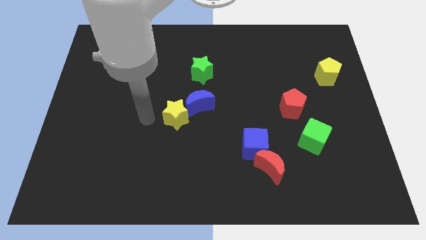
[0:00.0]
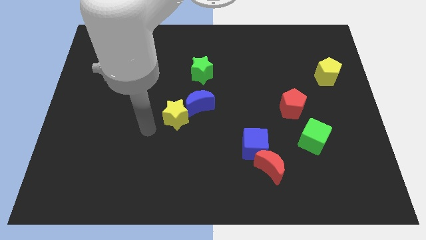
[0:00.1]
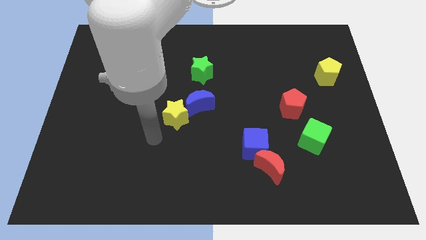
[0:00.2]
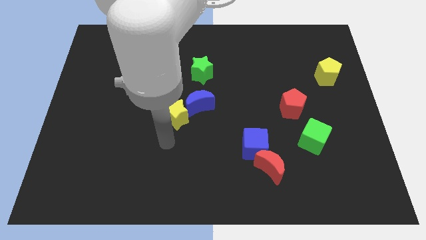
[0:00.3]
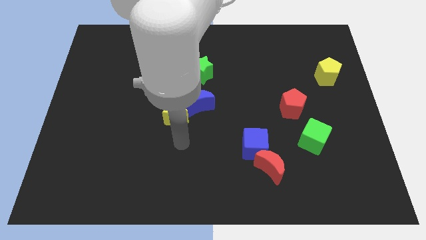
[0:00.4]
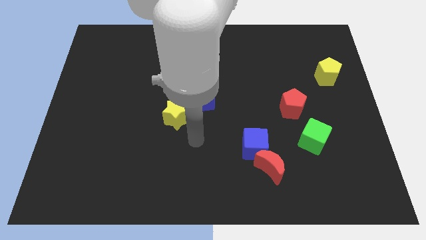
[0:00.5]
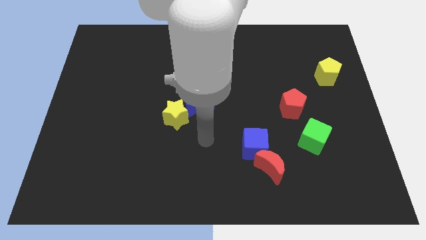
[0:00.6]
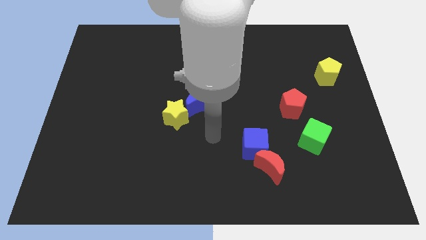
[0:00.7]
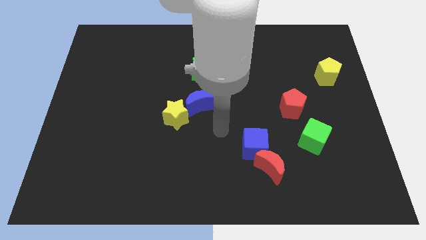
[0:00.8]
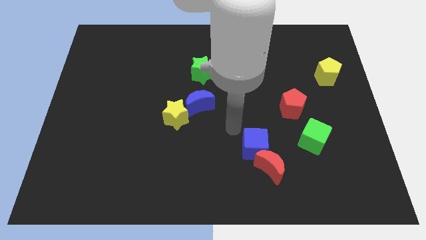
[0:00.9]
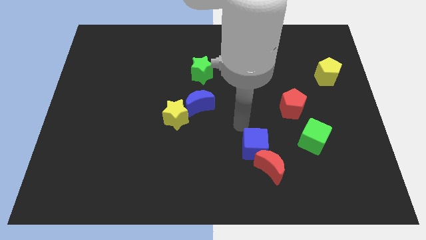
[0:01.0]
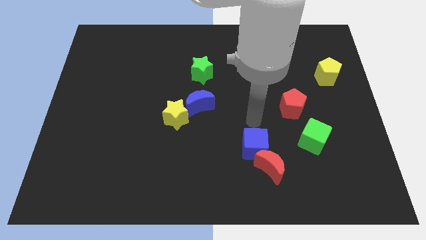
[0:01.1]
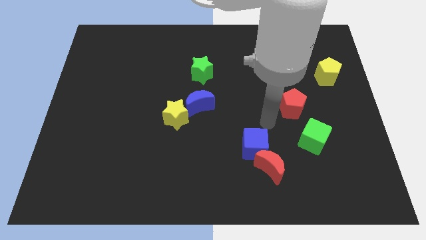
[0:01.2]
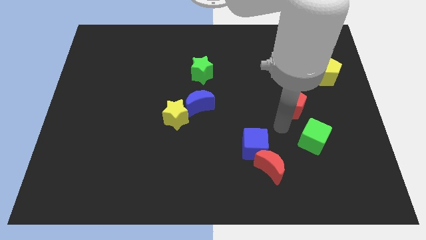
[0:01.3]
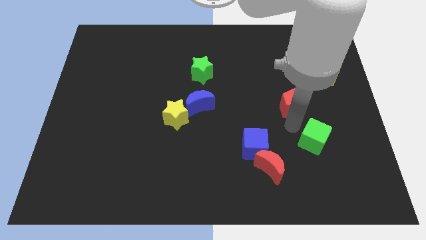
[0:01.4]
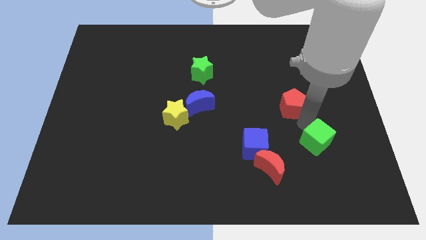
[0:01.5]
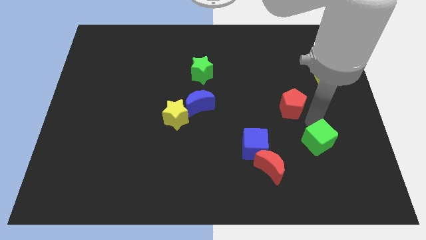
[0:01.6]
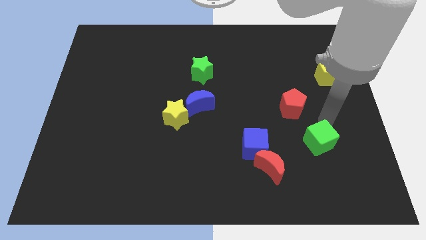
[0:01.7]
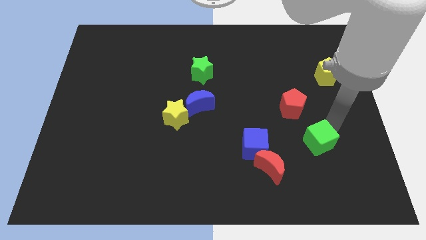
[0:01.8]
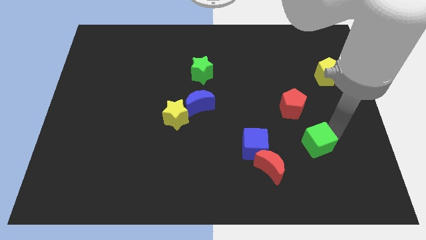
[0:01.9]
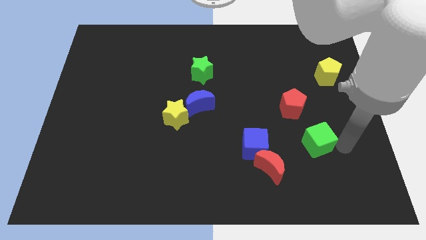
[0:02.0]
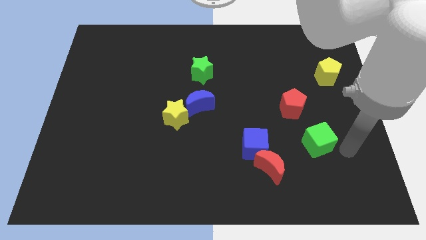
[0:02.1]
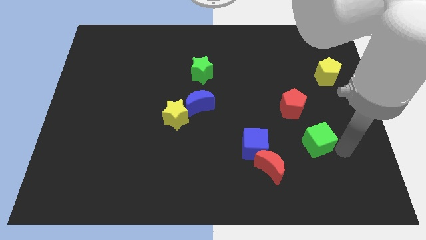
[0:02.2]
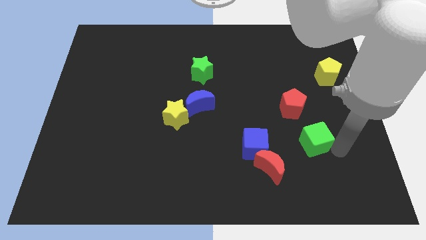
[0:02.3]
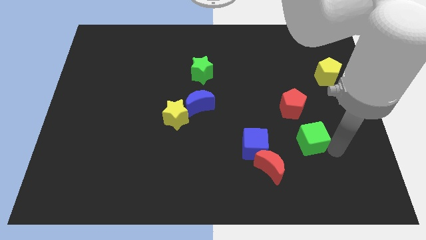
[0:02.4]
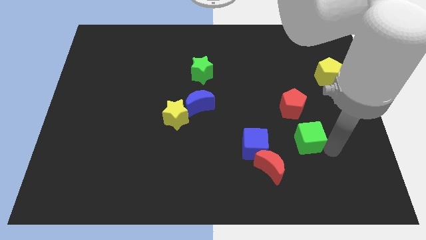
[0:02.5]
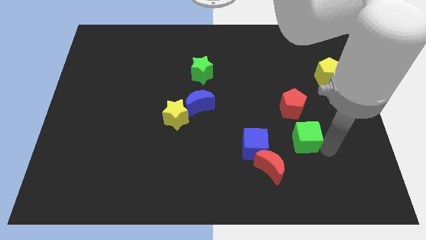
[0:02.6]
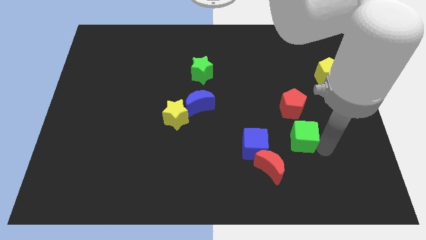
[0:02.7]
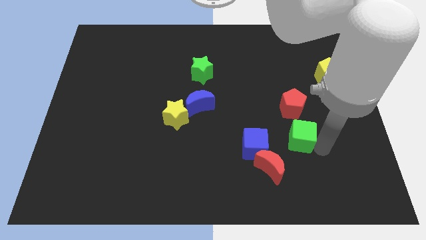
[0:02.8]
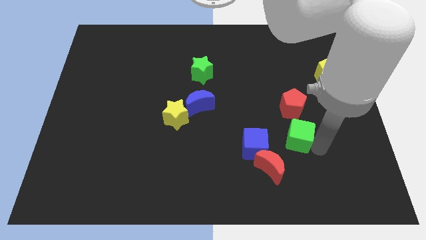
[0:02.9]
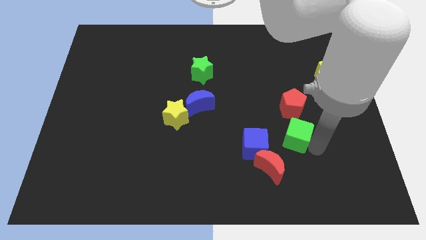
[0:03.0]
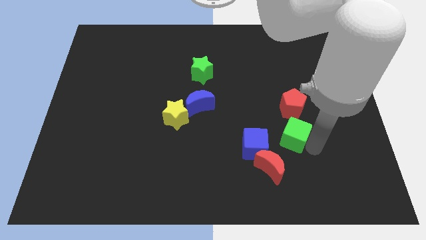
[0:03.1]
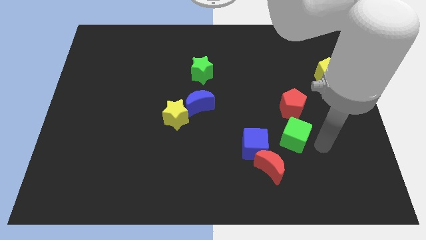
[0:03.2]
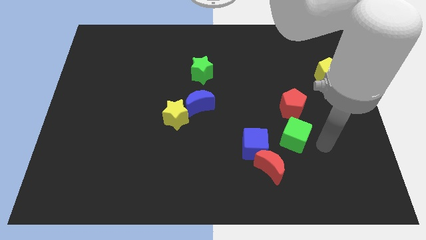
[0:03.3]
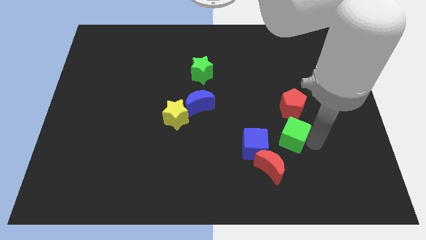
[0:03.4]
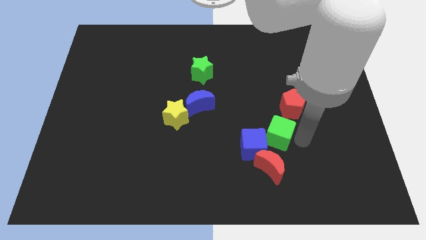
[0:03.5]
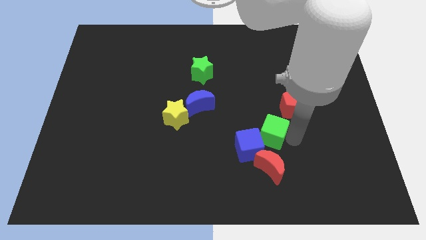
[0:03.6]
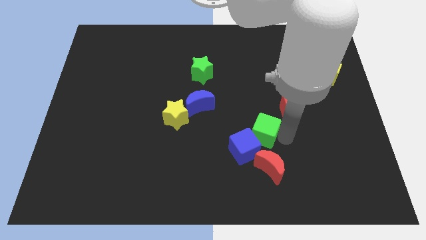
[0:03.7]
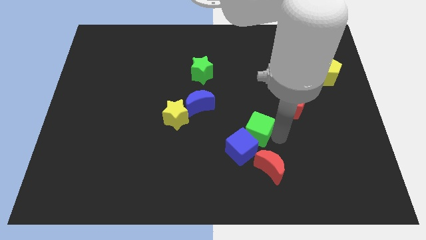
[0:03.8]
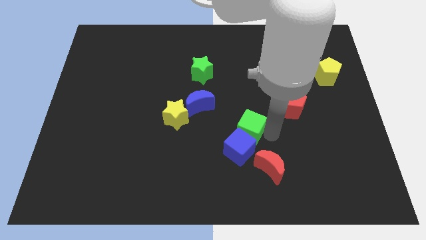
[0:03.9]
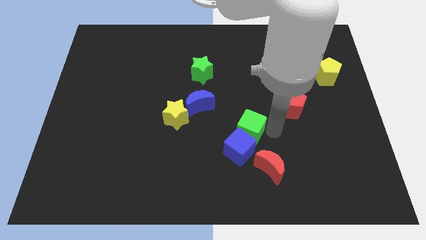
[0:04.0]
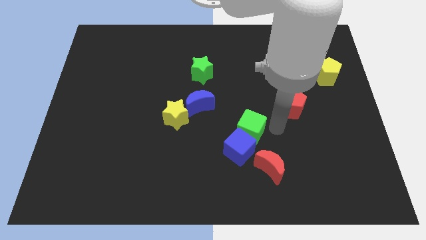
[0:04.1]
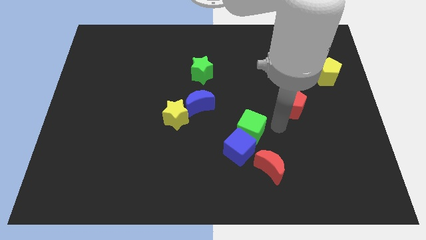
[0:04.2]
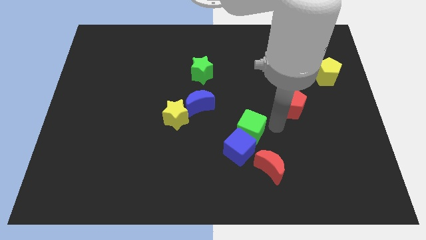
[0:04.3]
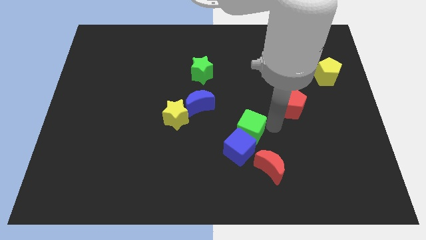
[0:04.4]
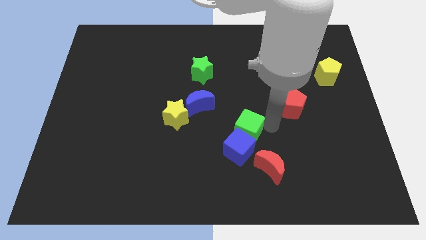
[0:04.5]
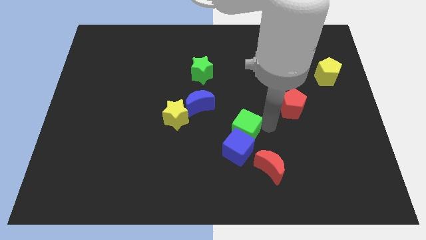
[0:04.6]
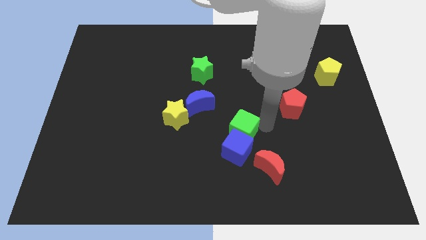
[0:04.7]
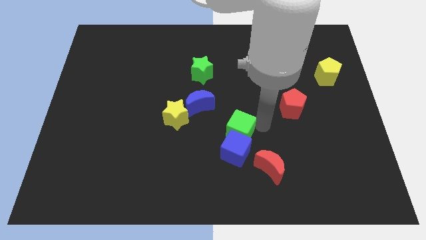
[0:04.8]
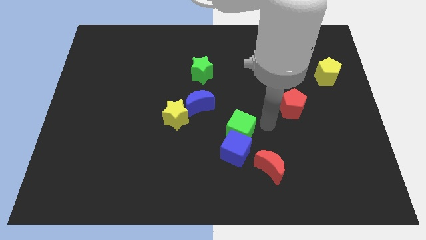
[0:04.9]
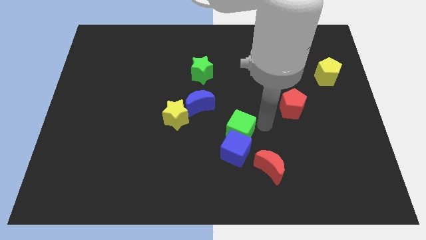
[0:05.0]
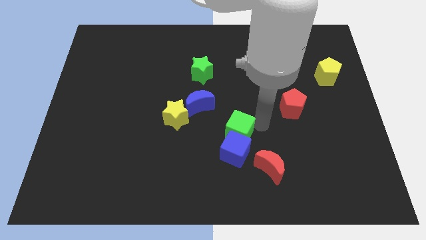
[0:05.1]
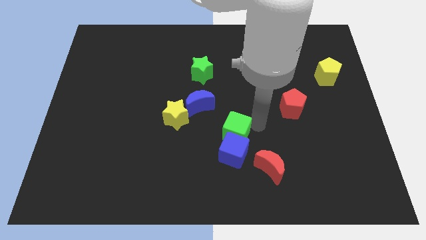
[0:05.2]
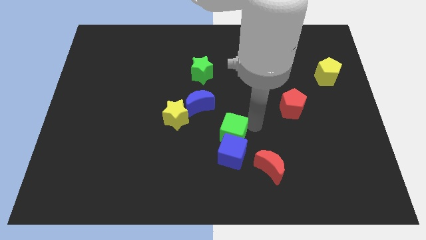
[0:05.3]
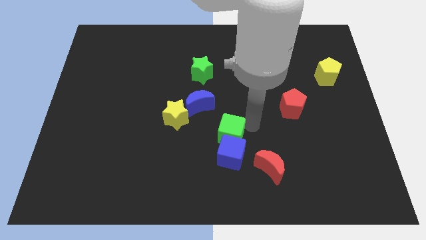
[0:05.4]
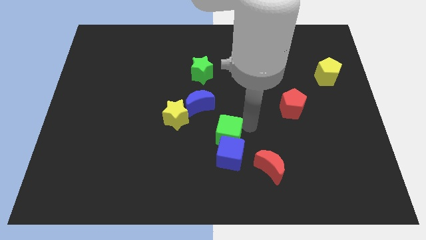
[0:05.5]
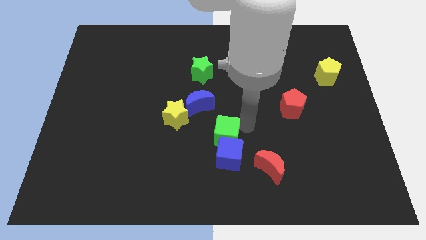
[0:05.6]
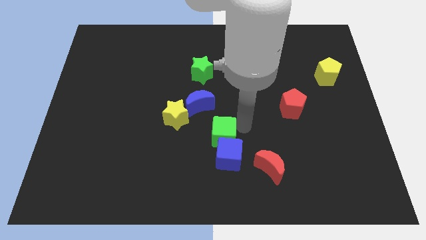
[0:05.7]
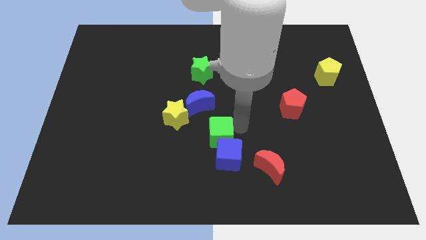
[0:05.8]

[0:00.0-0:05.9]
push the green cube diagonally down and to the right of the yellow star

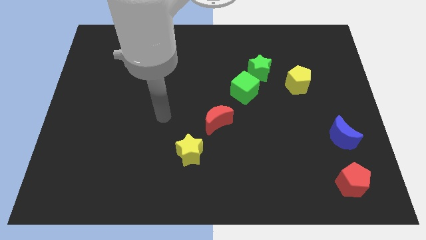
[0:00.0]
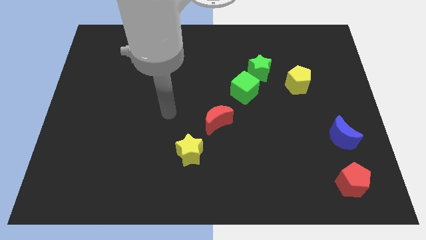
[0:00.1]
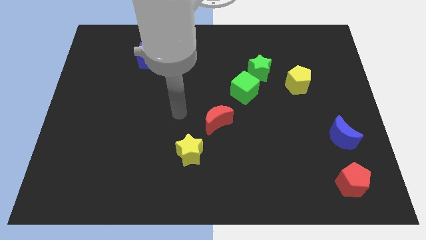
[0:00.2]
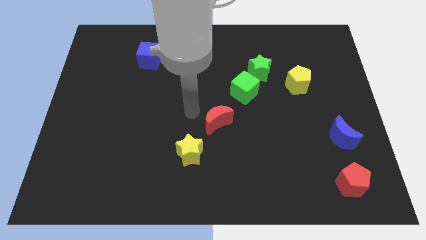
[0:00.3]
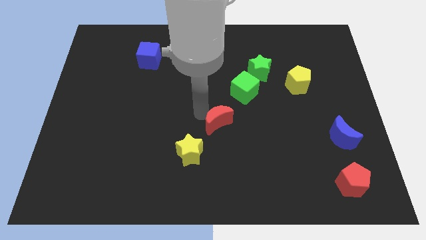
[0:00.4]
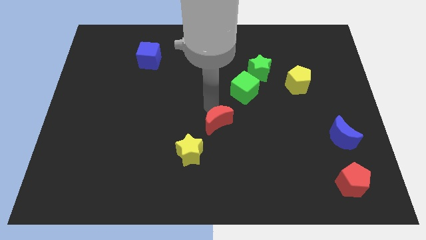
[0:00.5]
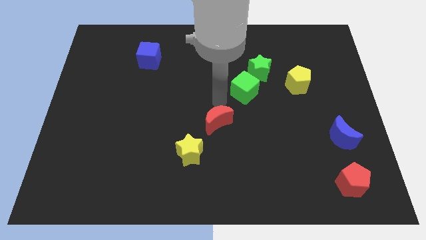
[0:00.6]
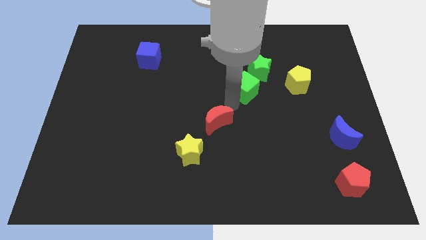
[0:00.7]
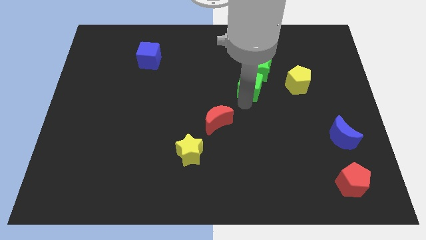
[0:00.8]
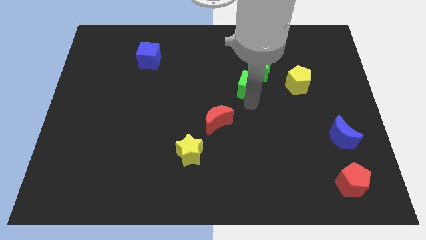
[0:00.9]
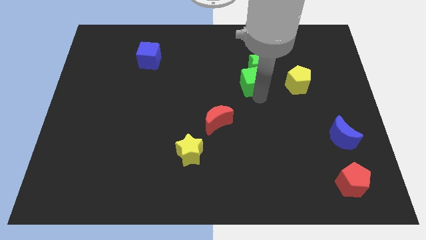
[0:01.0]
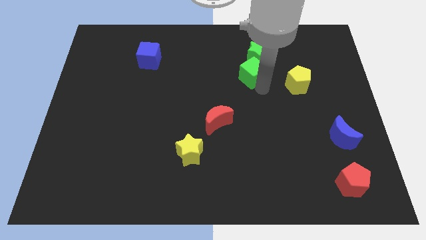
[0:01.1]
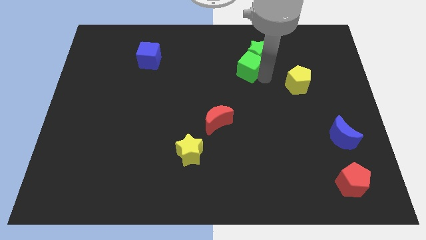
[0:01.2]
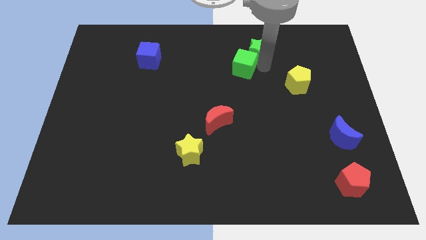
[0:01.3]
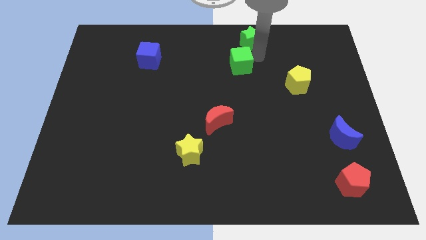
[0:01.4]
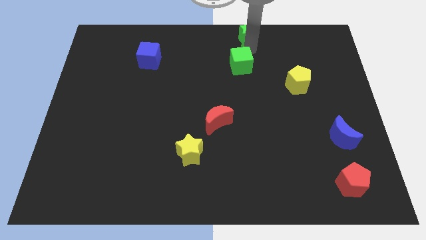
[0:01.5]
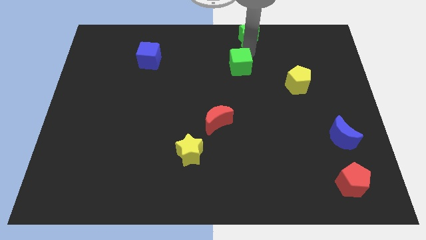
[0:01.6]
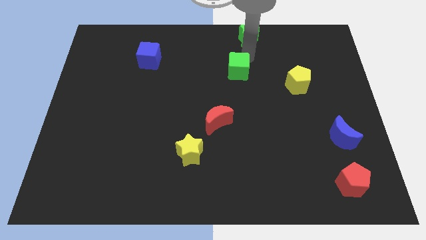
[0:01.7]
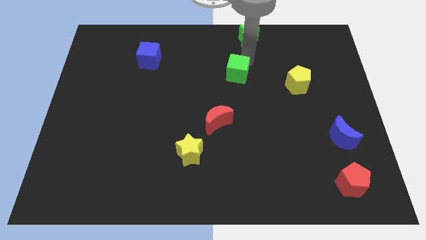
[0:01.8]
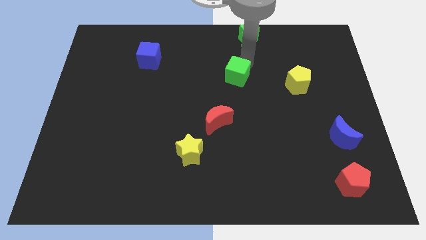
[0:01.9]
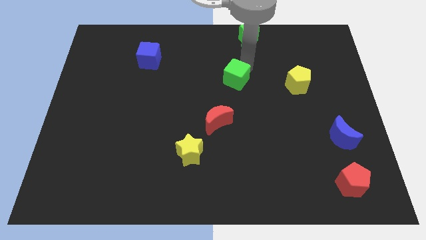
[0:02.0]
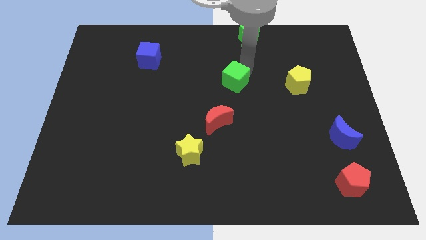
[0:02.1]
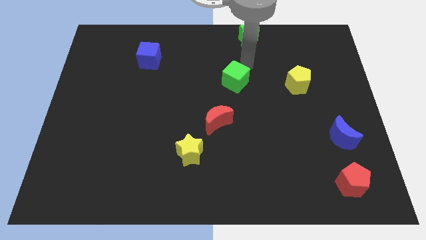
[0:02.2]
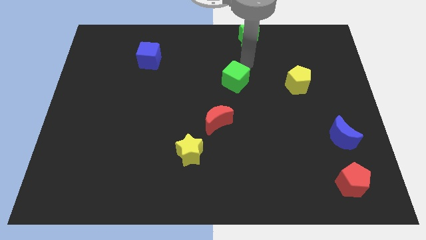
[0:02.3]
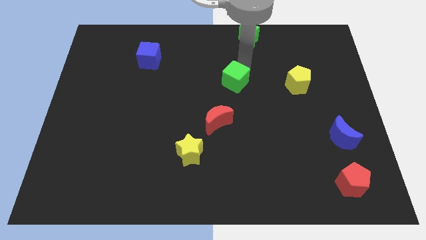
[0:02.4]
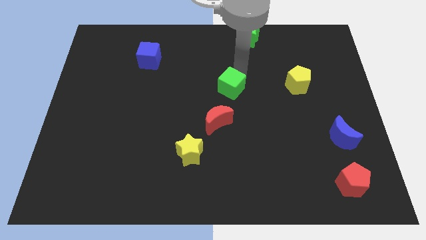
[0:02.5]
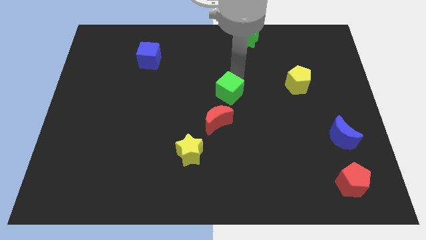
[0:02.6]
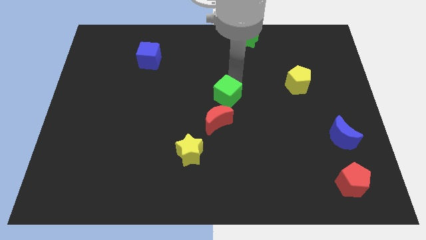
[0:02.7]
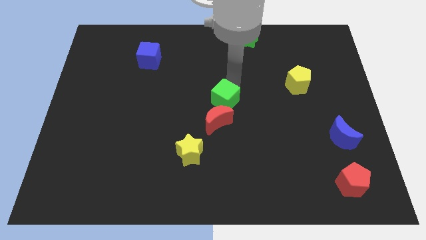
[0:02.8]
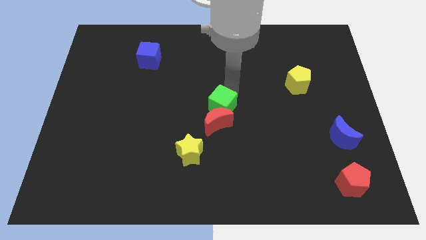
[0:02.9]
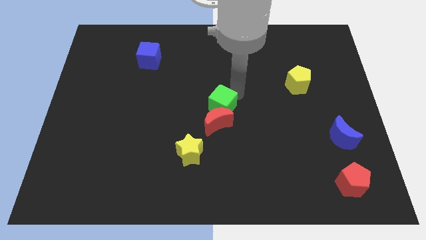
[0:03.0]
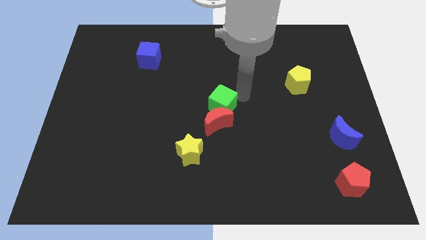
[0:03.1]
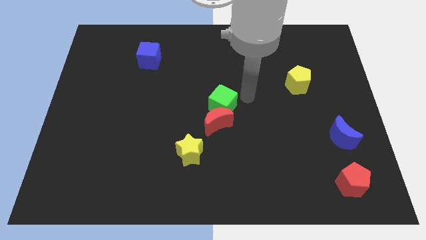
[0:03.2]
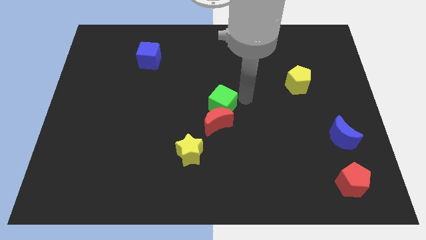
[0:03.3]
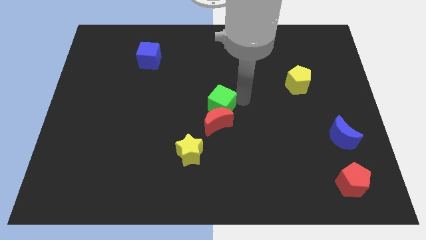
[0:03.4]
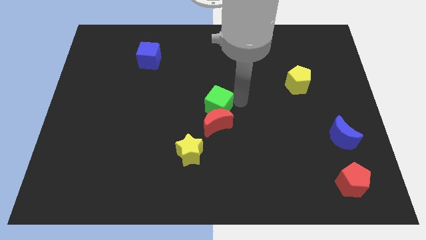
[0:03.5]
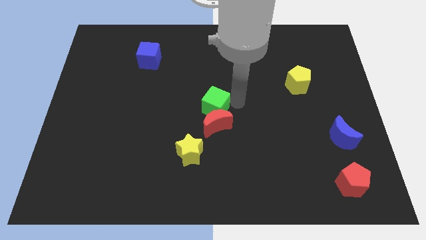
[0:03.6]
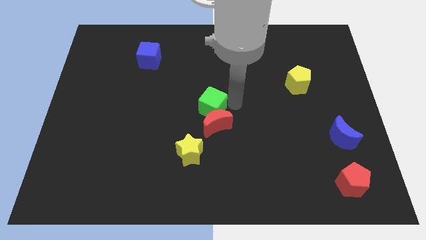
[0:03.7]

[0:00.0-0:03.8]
slide the green cube to the top of the yellow star
